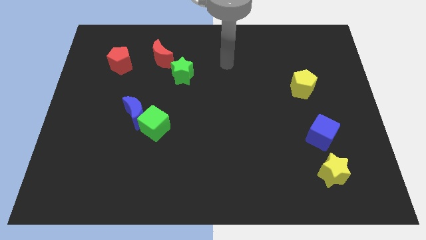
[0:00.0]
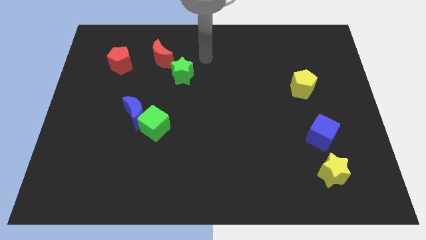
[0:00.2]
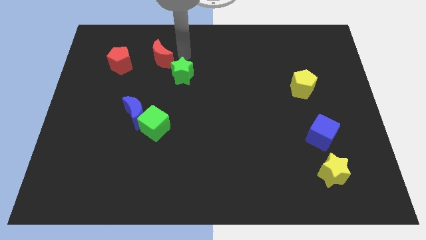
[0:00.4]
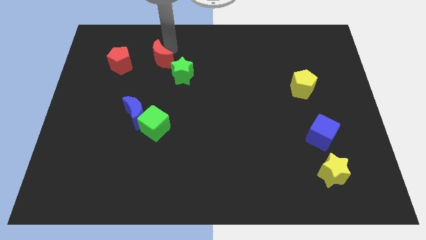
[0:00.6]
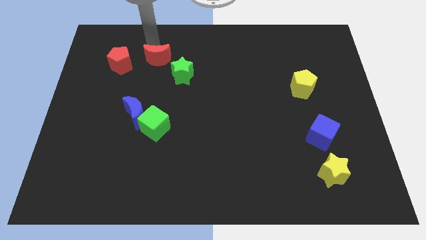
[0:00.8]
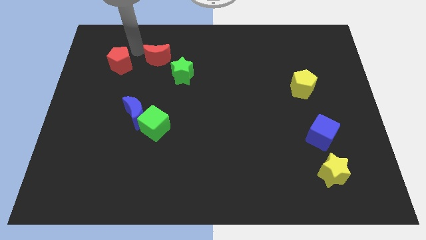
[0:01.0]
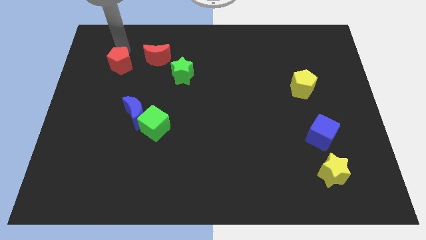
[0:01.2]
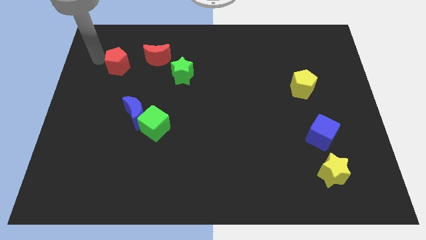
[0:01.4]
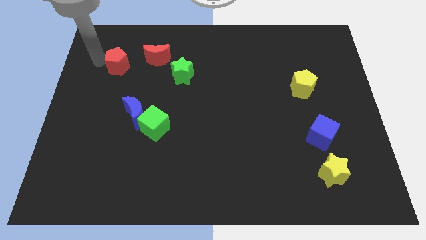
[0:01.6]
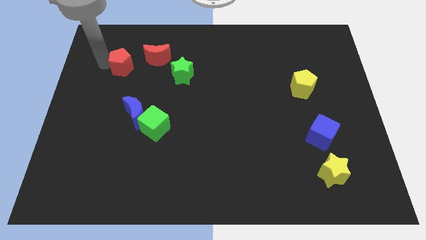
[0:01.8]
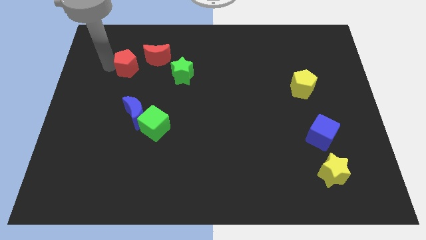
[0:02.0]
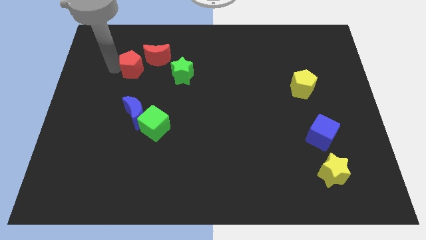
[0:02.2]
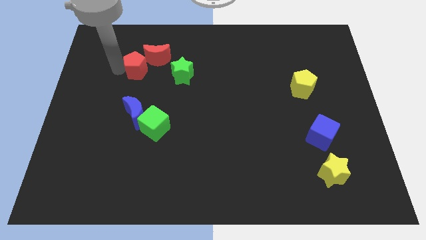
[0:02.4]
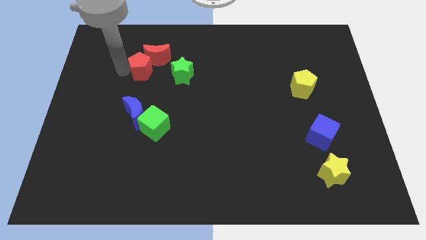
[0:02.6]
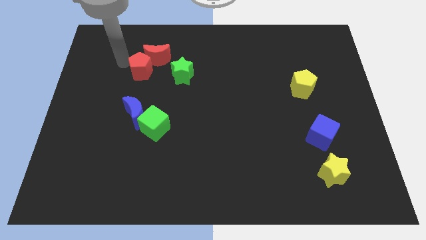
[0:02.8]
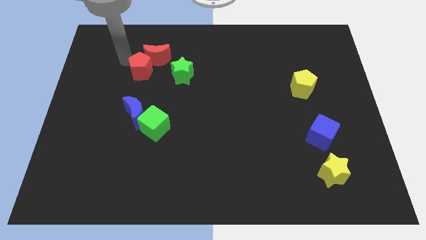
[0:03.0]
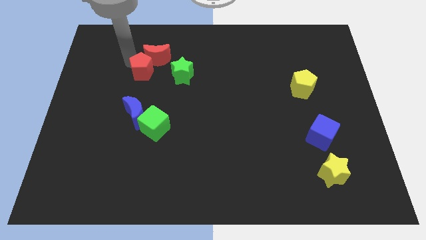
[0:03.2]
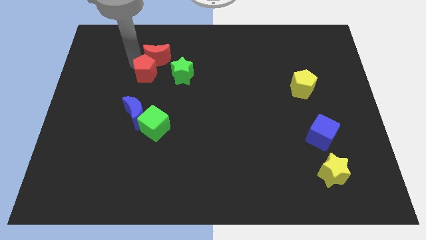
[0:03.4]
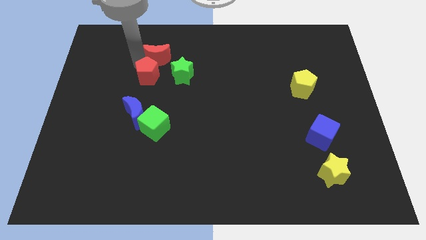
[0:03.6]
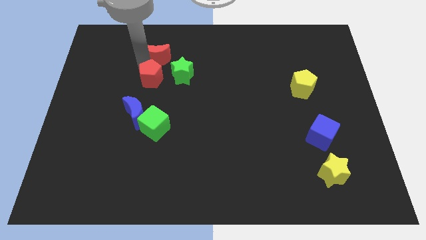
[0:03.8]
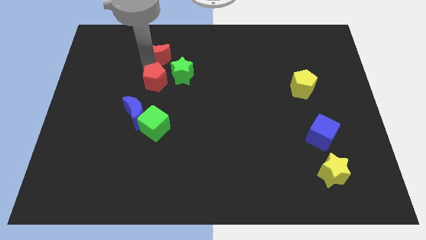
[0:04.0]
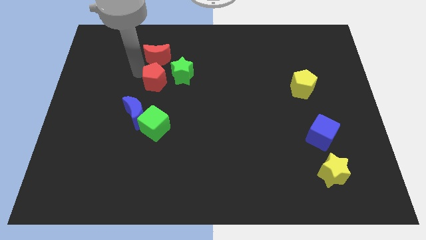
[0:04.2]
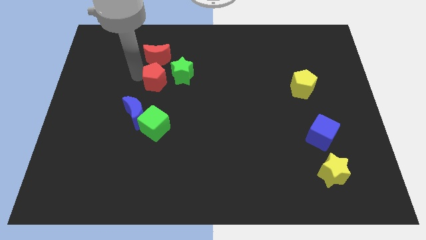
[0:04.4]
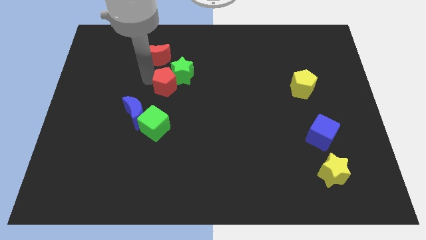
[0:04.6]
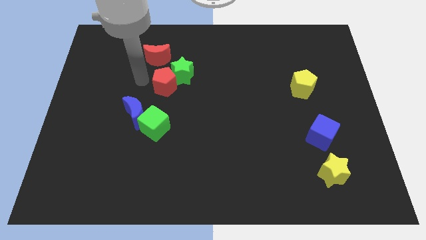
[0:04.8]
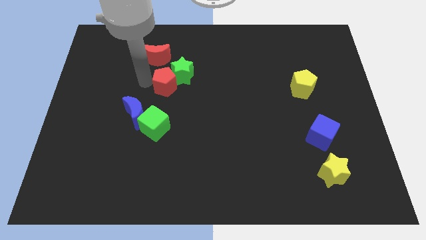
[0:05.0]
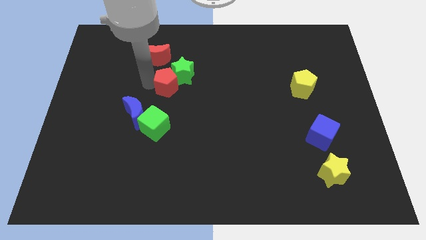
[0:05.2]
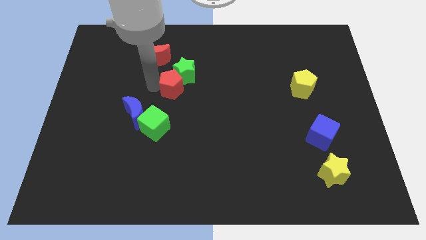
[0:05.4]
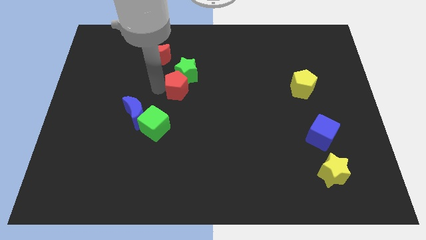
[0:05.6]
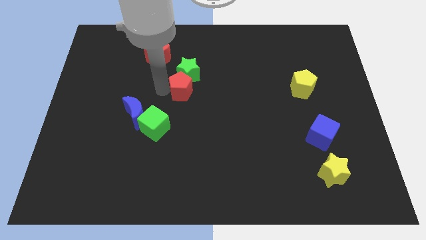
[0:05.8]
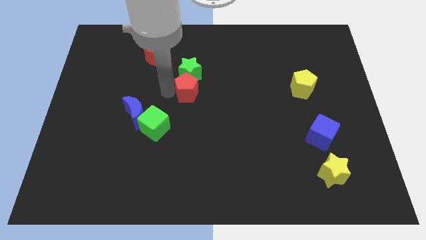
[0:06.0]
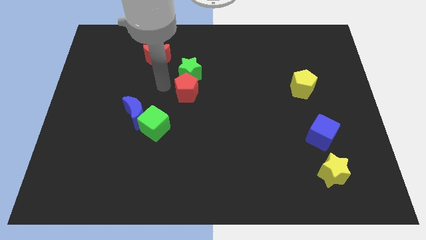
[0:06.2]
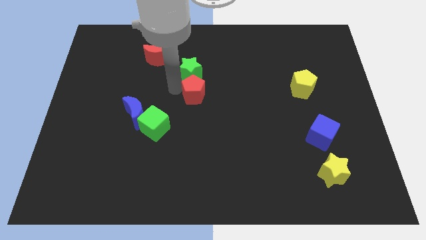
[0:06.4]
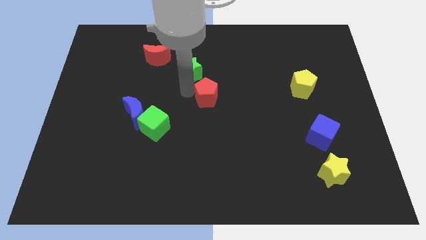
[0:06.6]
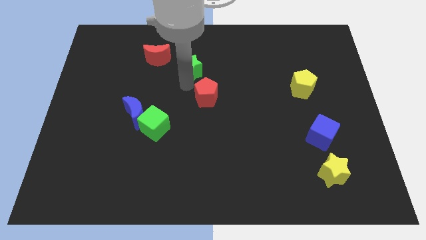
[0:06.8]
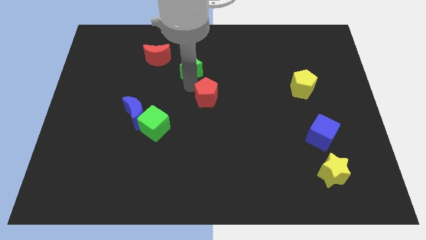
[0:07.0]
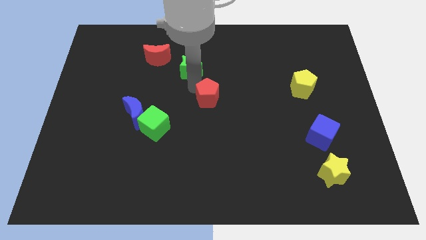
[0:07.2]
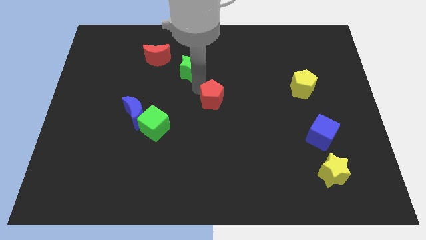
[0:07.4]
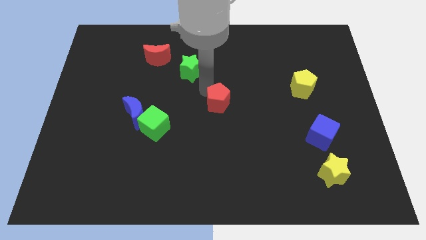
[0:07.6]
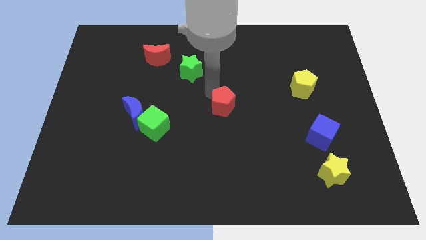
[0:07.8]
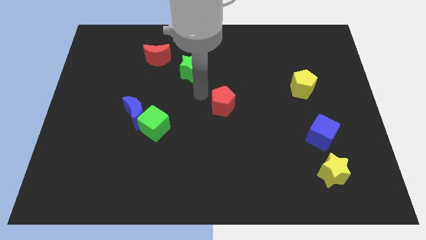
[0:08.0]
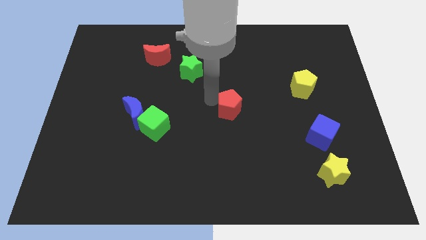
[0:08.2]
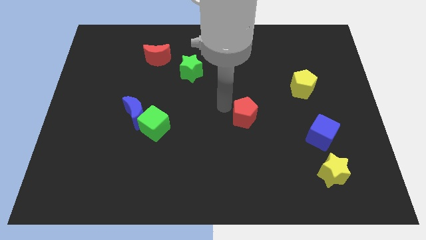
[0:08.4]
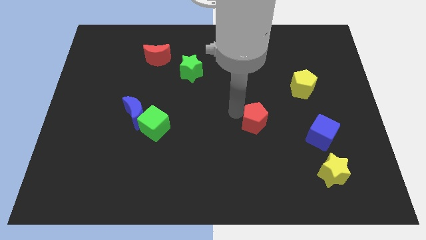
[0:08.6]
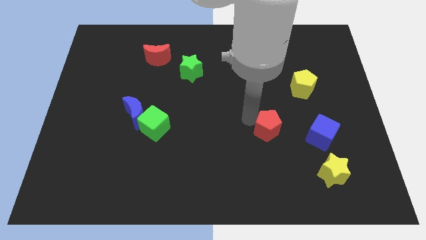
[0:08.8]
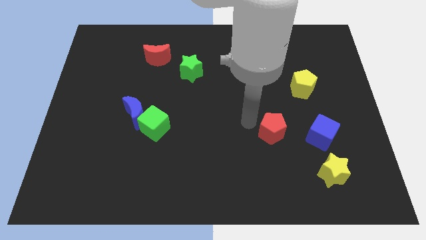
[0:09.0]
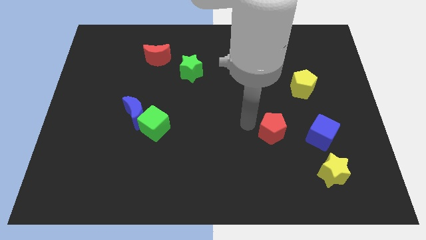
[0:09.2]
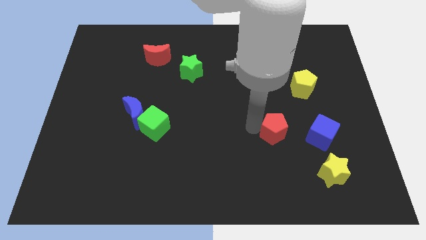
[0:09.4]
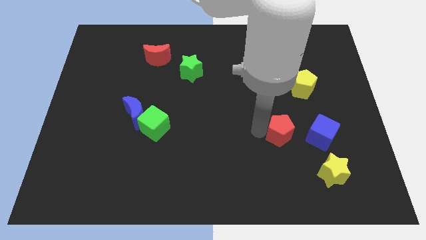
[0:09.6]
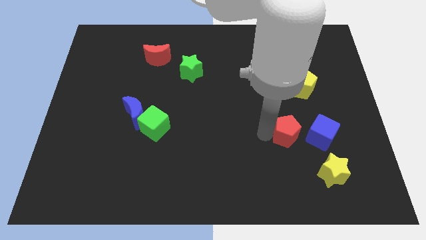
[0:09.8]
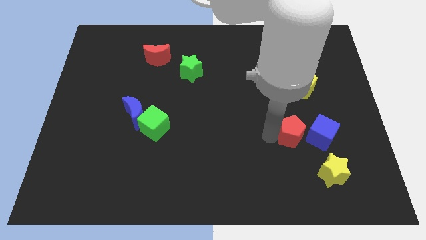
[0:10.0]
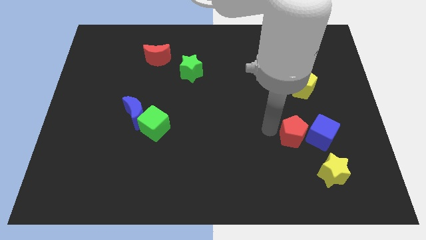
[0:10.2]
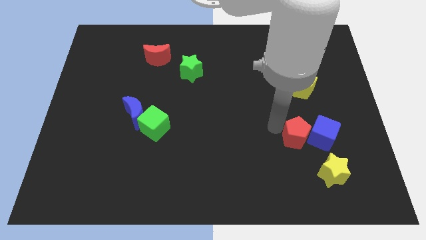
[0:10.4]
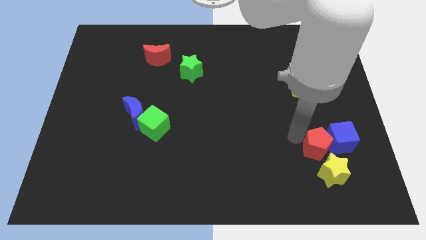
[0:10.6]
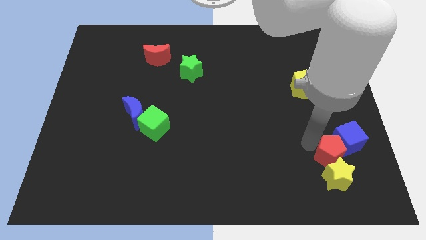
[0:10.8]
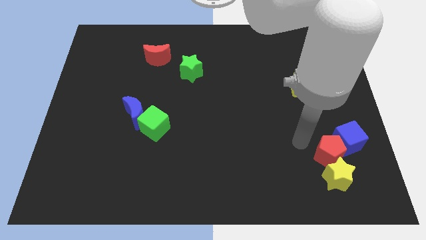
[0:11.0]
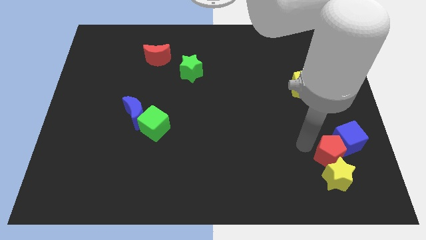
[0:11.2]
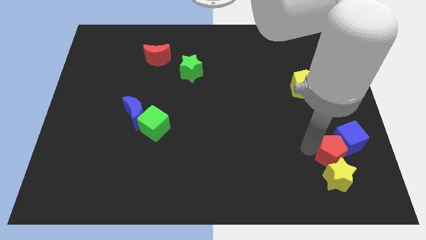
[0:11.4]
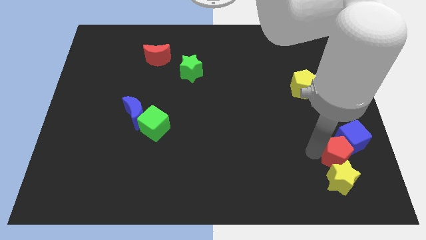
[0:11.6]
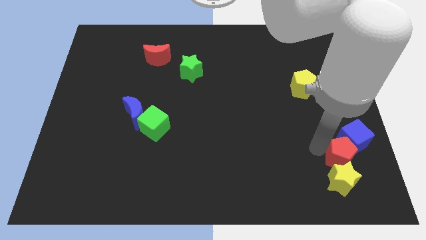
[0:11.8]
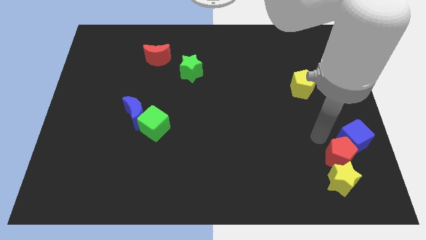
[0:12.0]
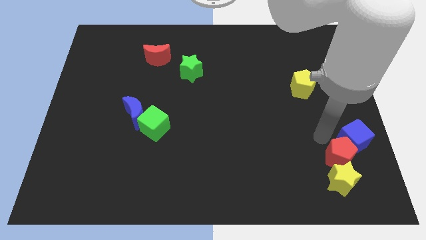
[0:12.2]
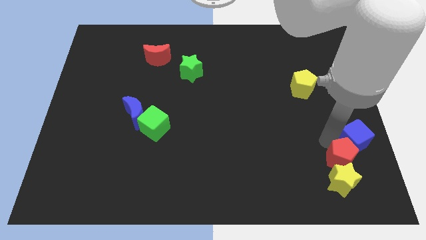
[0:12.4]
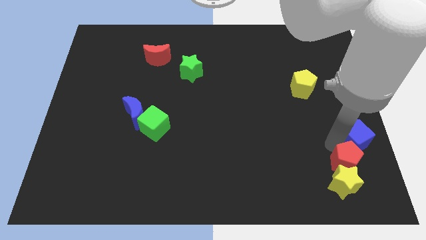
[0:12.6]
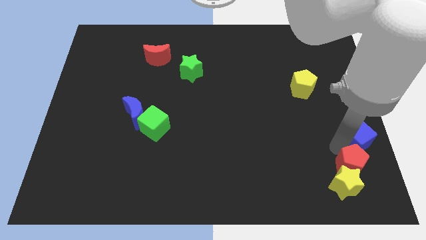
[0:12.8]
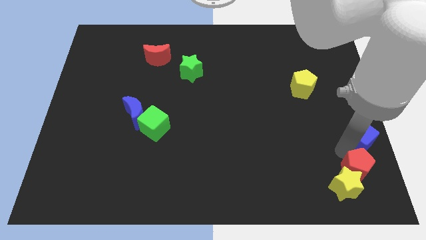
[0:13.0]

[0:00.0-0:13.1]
push the red pentagon to the lower right corner
